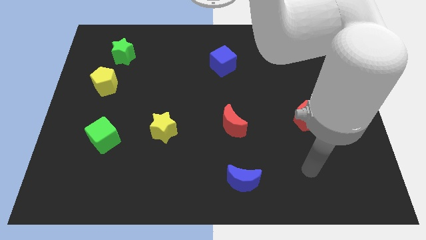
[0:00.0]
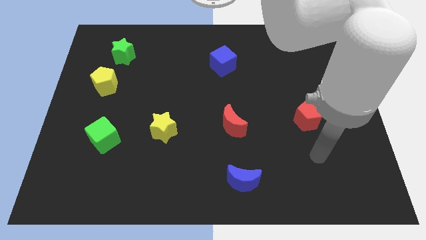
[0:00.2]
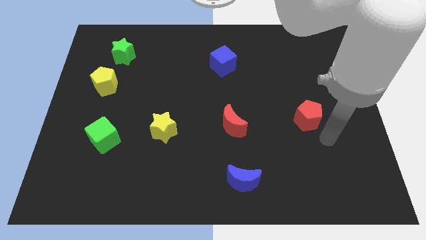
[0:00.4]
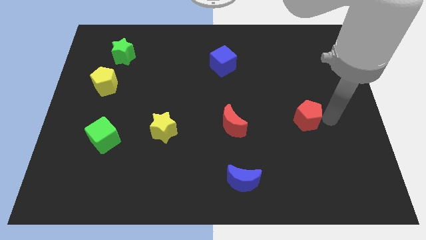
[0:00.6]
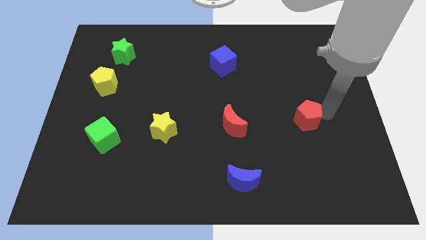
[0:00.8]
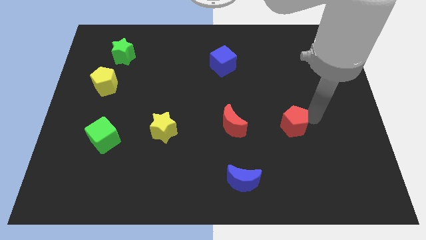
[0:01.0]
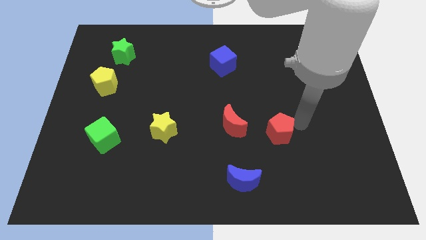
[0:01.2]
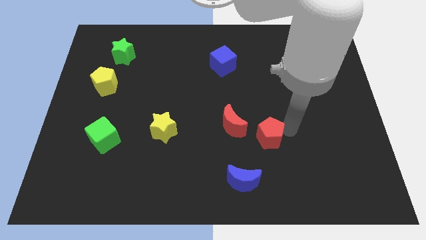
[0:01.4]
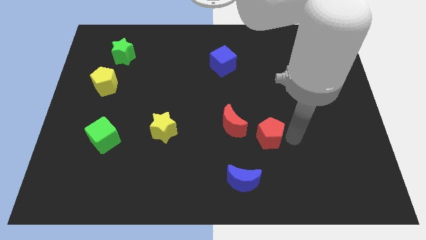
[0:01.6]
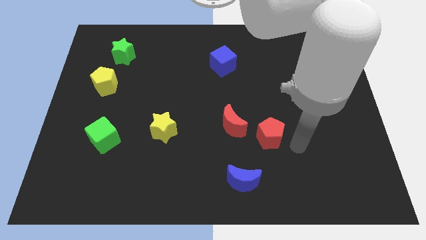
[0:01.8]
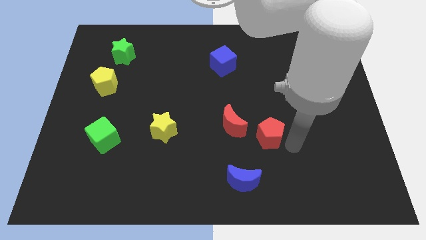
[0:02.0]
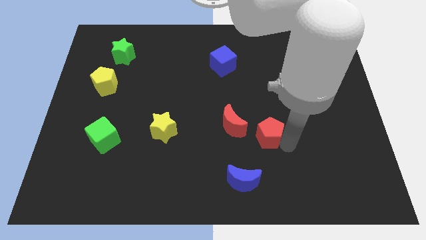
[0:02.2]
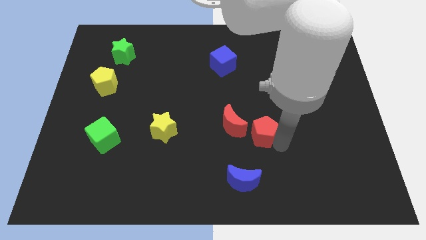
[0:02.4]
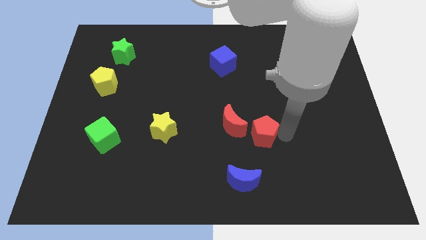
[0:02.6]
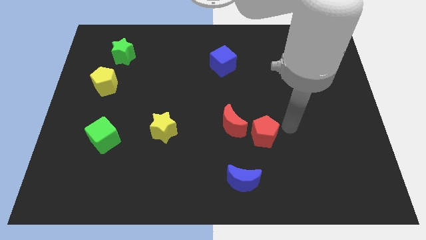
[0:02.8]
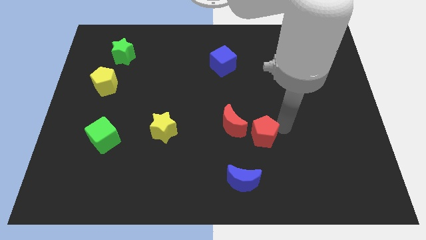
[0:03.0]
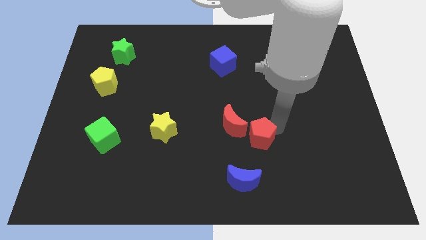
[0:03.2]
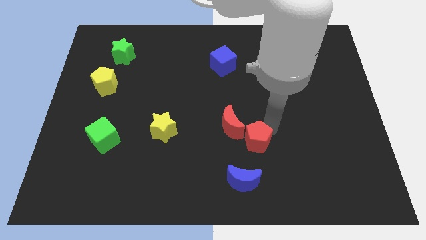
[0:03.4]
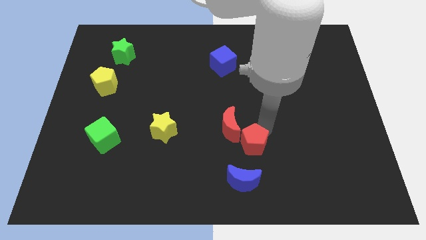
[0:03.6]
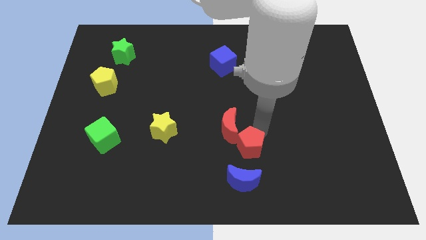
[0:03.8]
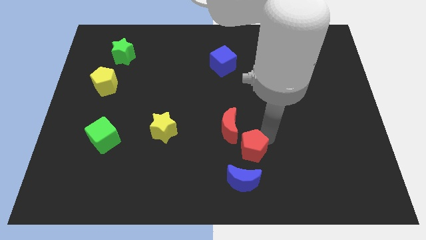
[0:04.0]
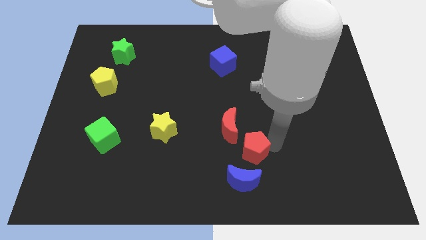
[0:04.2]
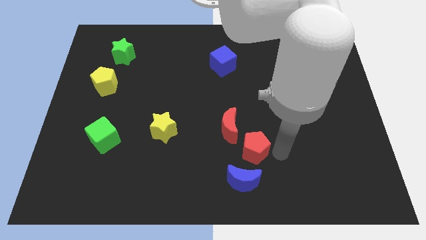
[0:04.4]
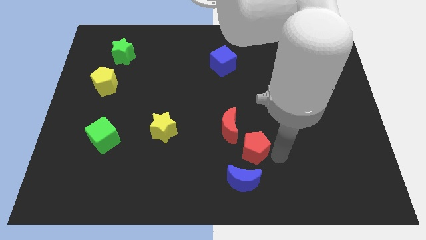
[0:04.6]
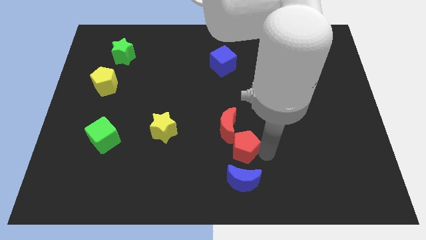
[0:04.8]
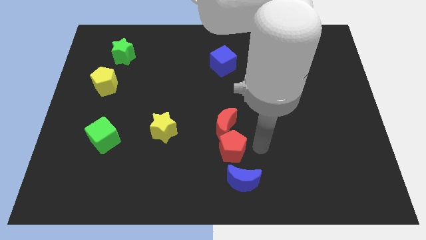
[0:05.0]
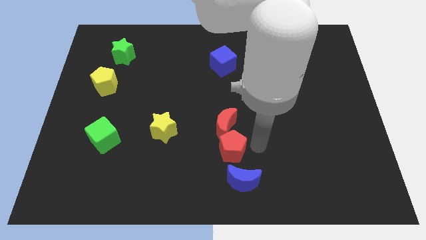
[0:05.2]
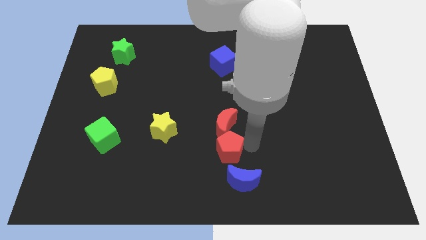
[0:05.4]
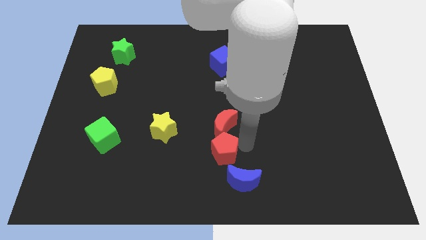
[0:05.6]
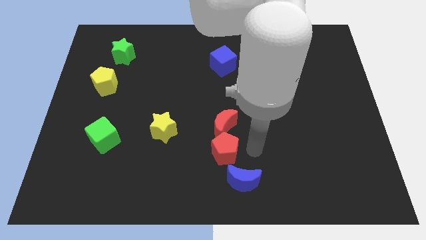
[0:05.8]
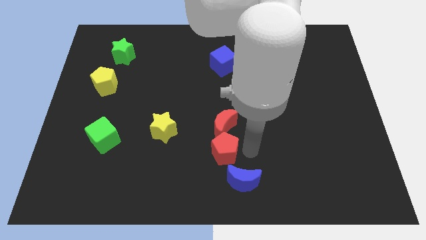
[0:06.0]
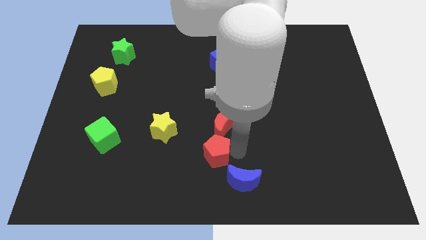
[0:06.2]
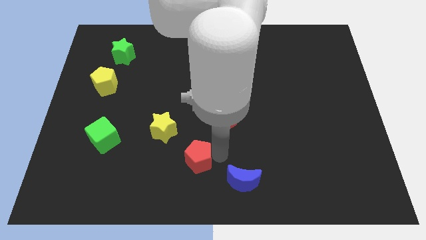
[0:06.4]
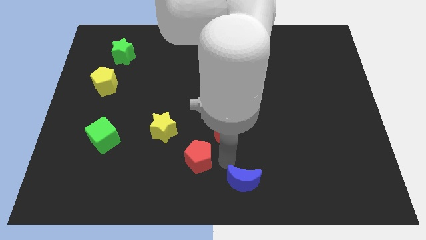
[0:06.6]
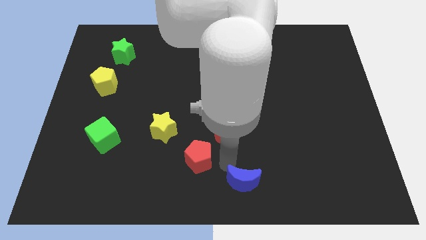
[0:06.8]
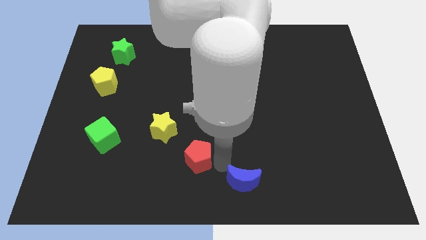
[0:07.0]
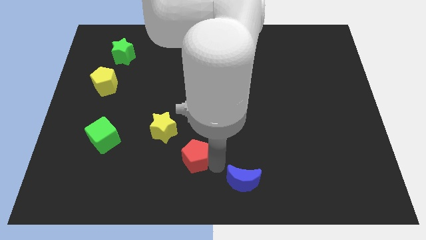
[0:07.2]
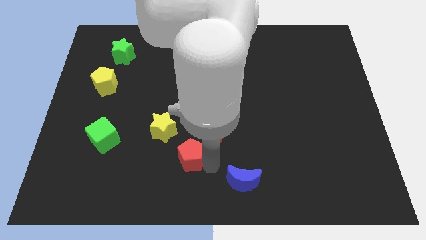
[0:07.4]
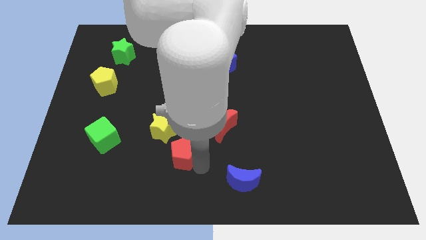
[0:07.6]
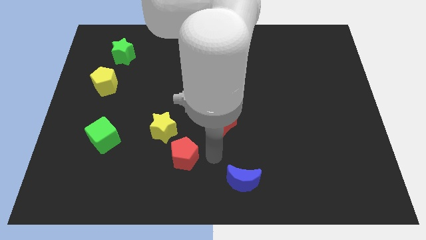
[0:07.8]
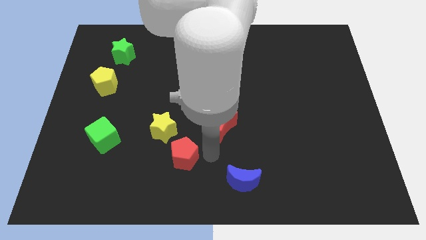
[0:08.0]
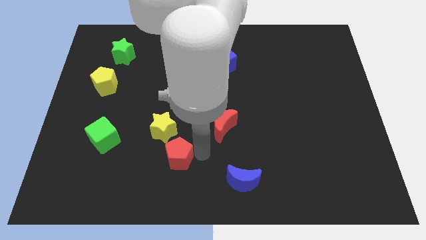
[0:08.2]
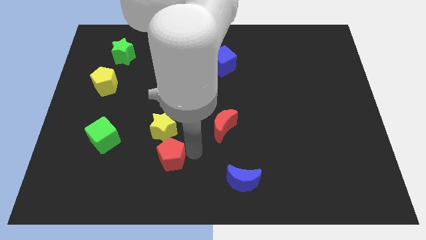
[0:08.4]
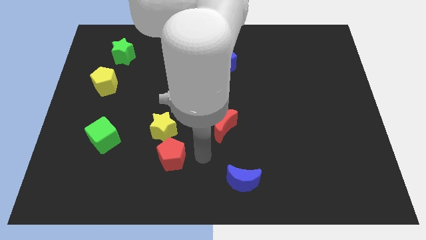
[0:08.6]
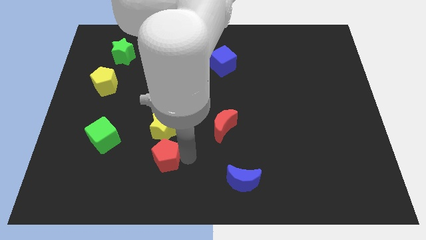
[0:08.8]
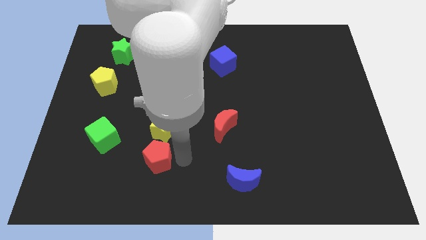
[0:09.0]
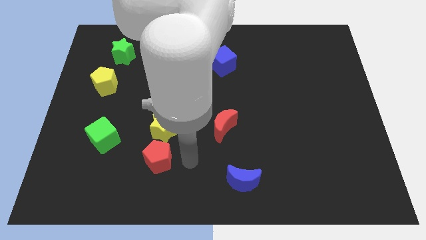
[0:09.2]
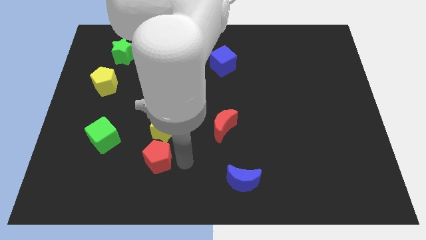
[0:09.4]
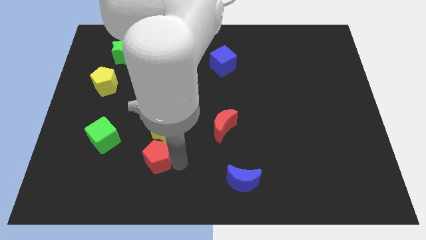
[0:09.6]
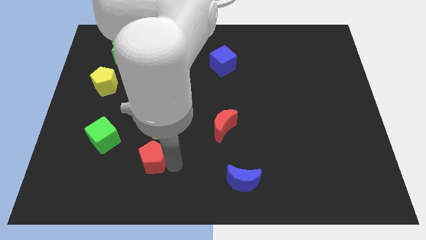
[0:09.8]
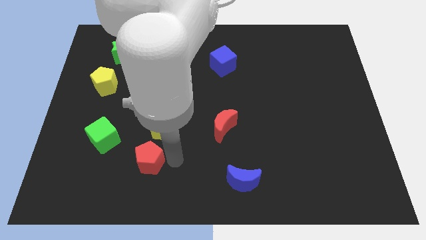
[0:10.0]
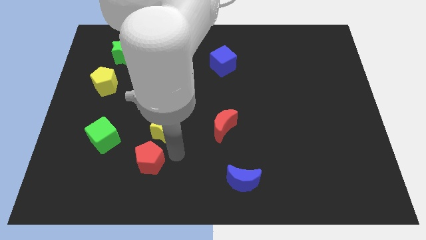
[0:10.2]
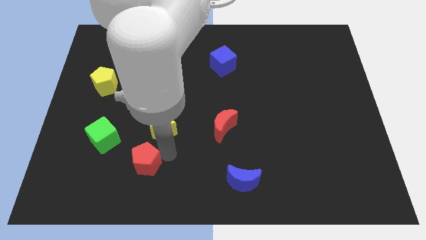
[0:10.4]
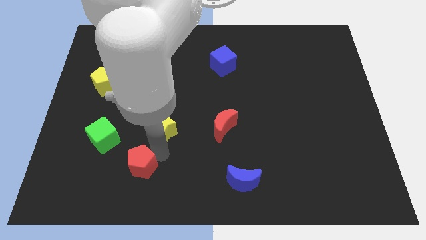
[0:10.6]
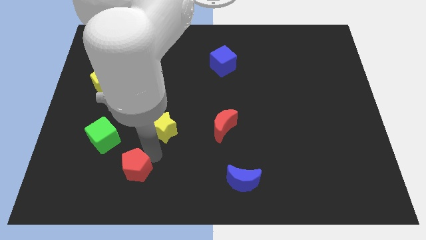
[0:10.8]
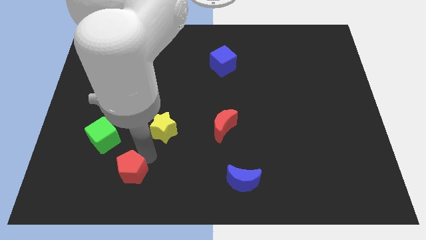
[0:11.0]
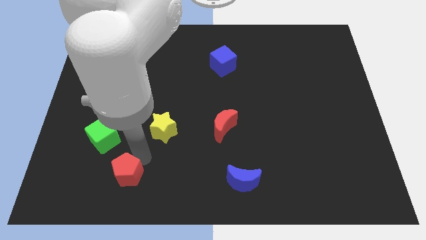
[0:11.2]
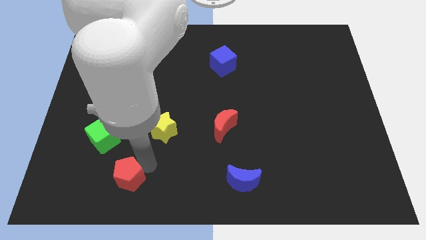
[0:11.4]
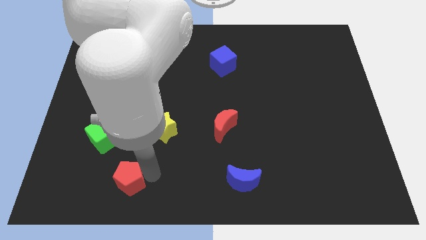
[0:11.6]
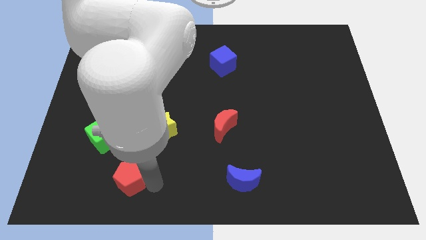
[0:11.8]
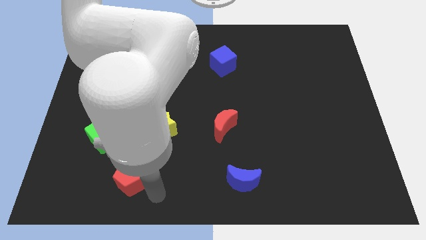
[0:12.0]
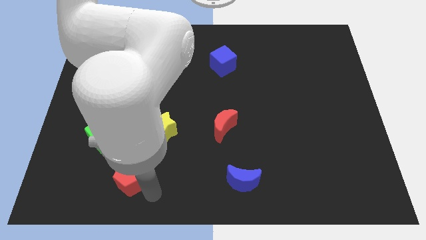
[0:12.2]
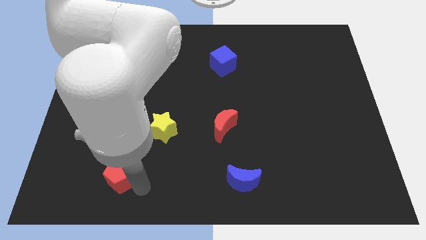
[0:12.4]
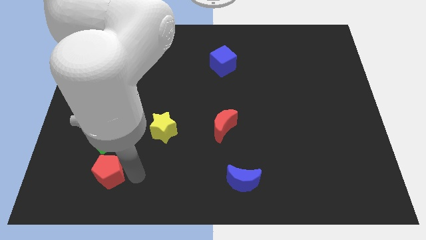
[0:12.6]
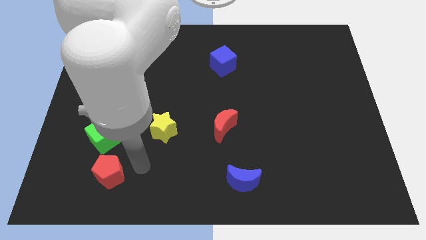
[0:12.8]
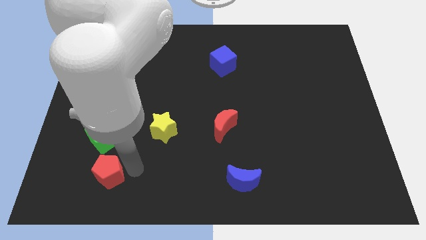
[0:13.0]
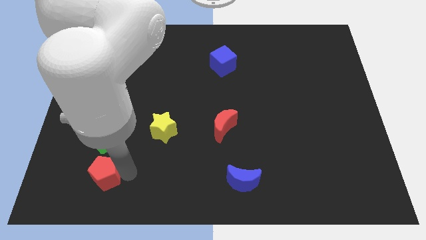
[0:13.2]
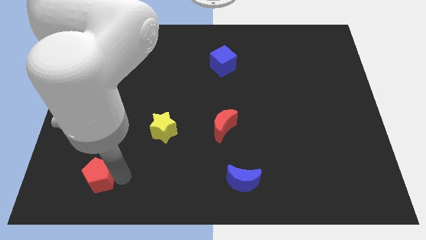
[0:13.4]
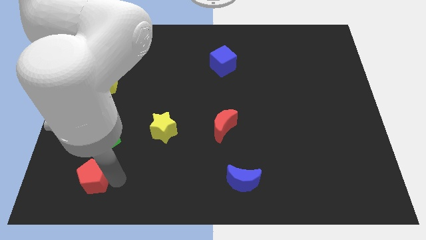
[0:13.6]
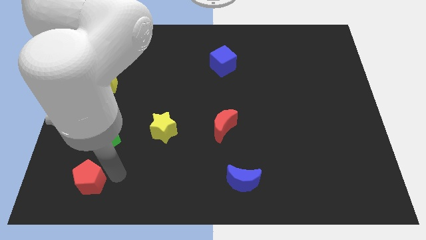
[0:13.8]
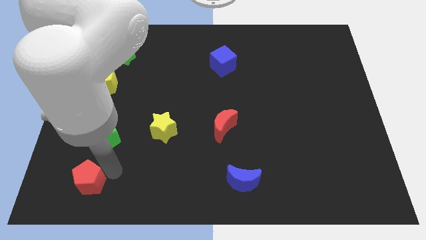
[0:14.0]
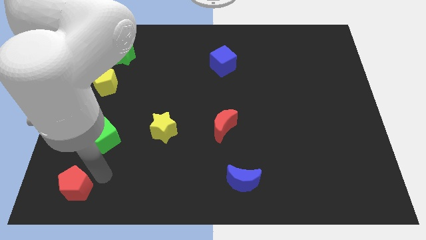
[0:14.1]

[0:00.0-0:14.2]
move the red pentagon to the bottom left corner

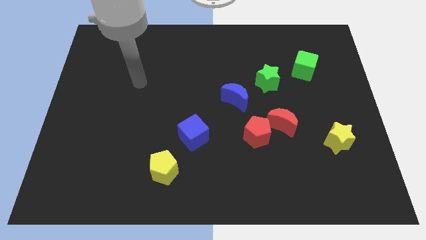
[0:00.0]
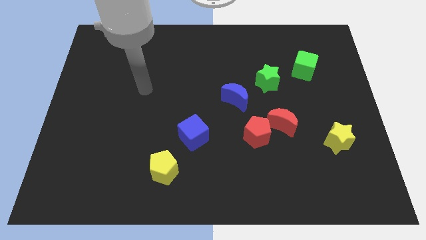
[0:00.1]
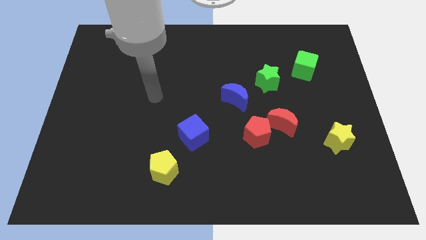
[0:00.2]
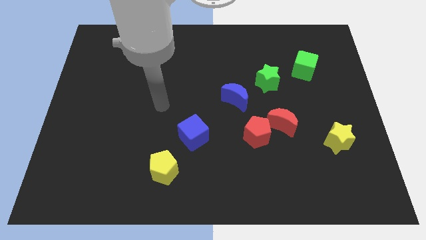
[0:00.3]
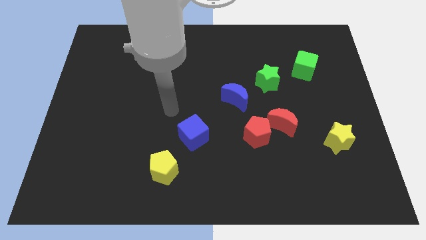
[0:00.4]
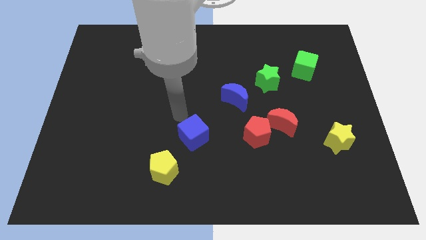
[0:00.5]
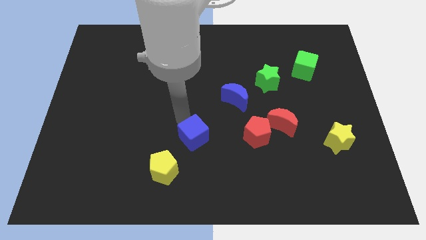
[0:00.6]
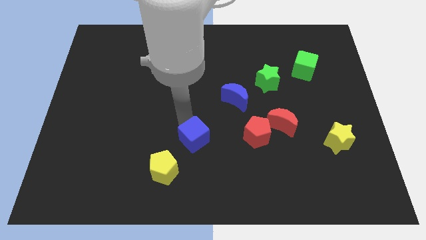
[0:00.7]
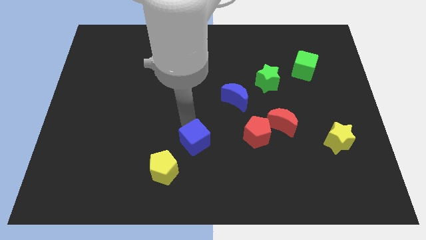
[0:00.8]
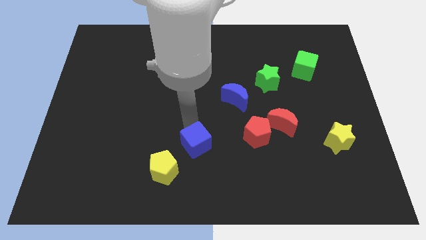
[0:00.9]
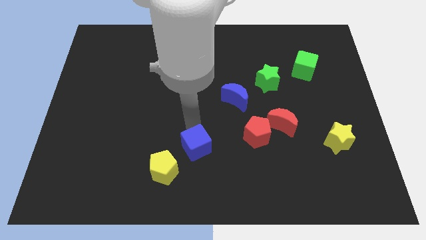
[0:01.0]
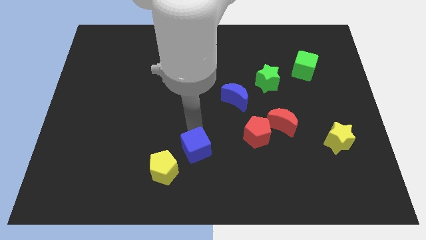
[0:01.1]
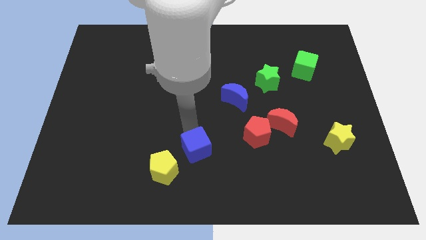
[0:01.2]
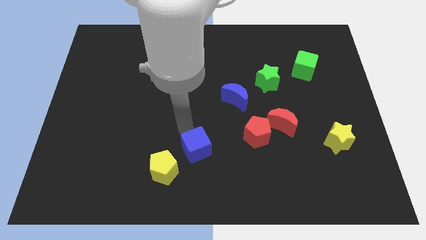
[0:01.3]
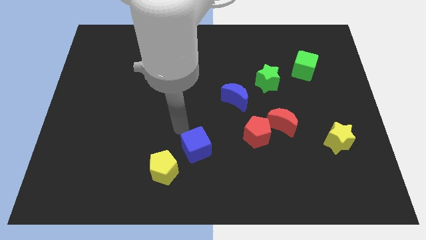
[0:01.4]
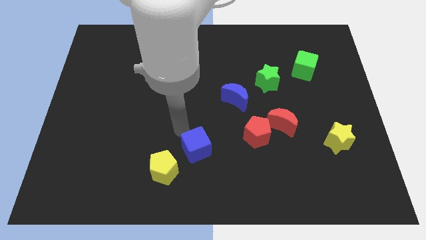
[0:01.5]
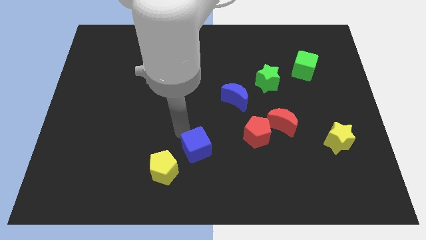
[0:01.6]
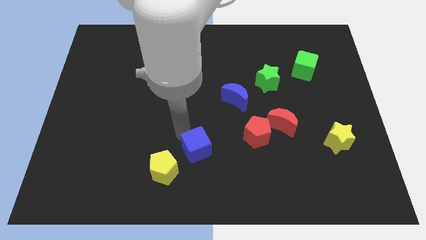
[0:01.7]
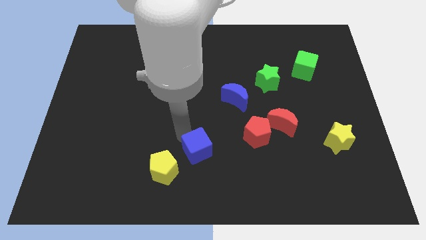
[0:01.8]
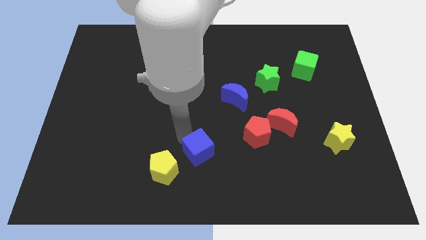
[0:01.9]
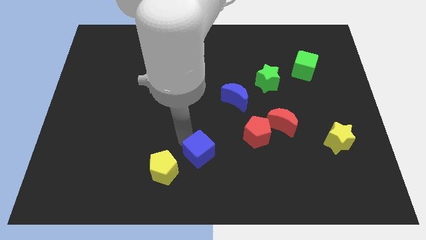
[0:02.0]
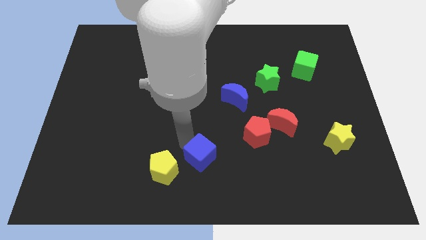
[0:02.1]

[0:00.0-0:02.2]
slide the blue cube to the bottom side
